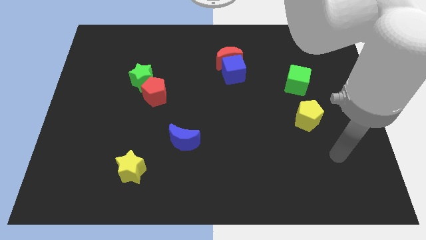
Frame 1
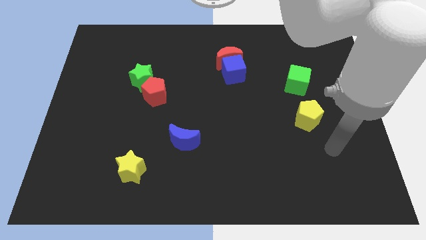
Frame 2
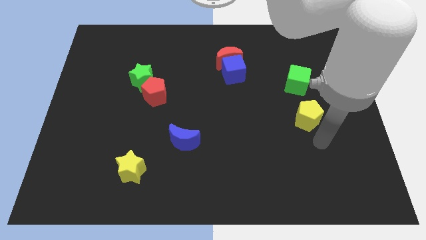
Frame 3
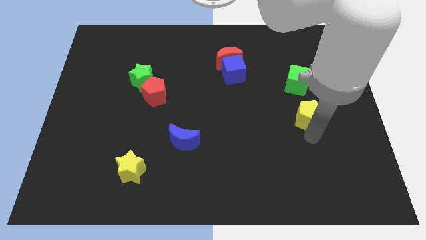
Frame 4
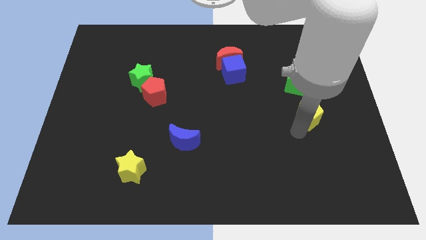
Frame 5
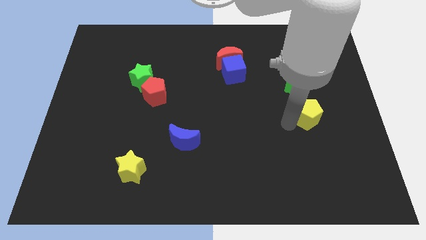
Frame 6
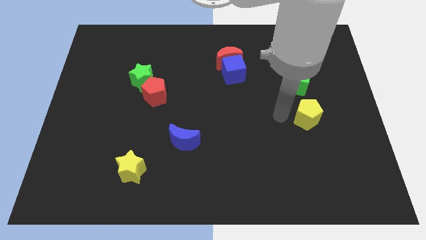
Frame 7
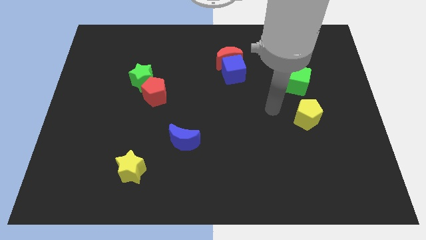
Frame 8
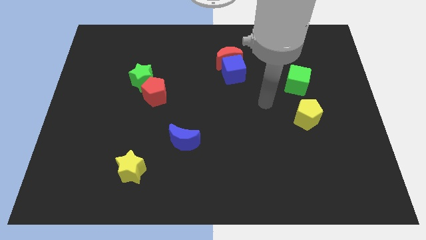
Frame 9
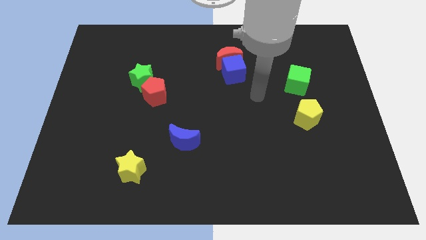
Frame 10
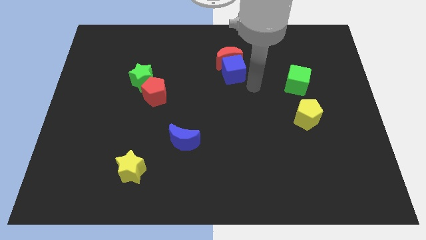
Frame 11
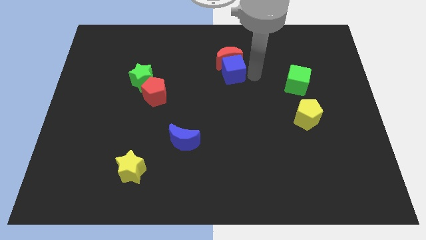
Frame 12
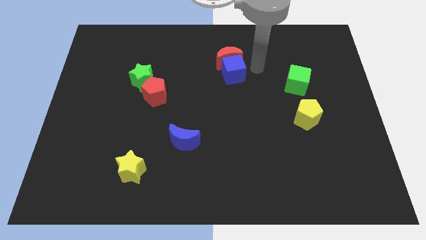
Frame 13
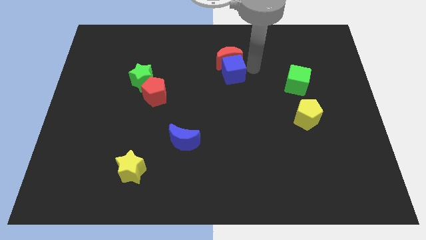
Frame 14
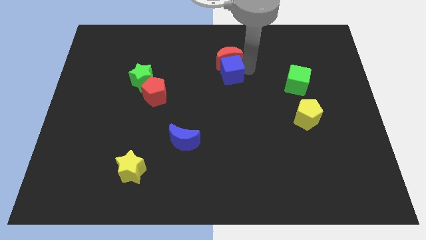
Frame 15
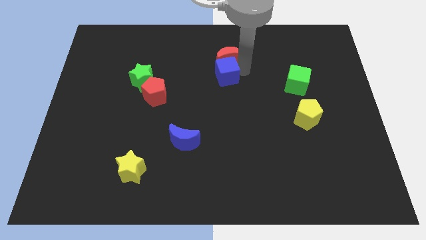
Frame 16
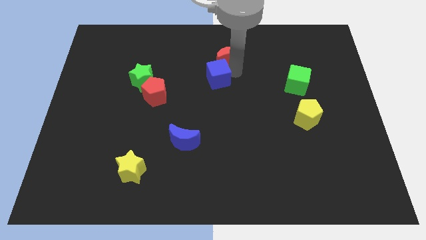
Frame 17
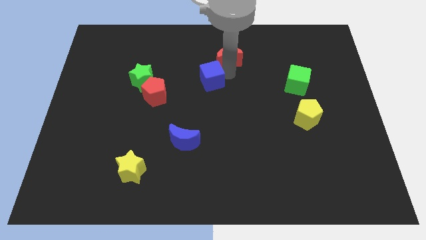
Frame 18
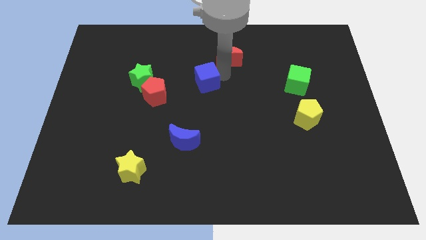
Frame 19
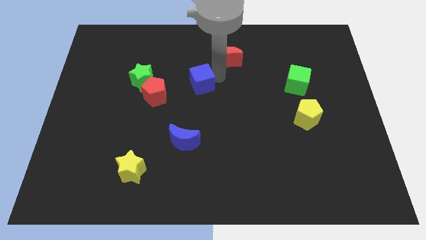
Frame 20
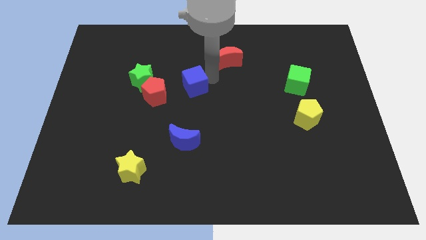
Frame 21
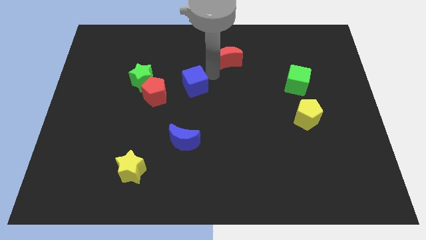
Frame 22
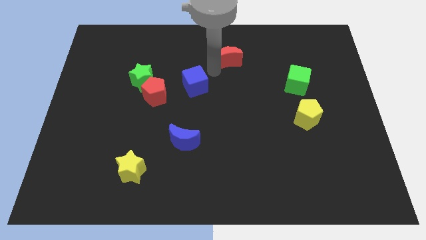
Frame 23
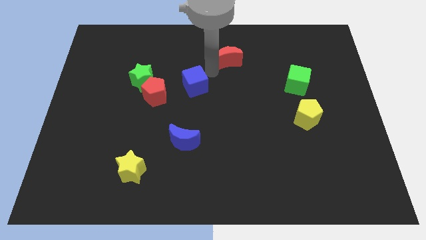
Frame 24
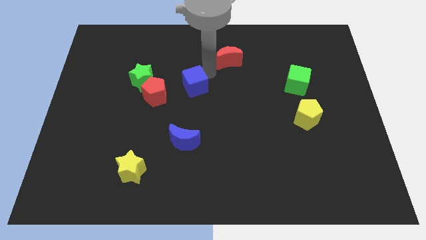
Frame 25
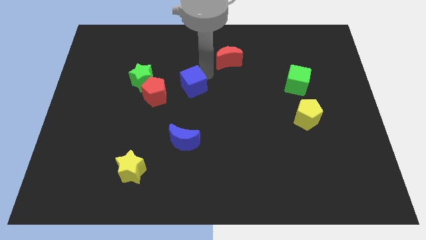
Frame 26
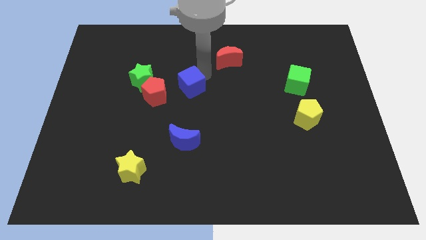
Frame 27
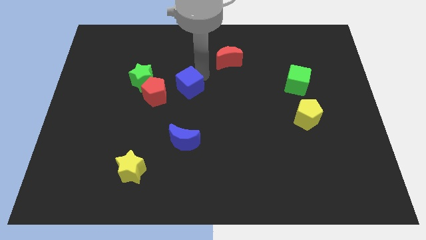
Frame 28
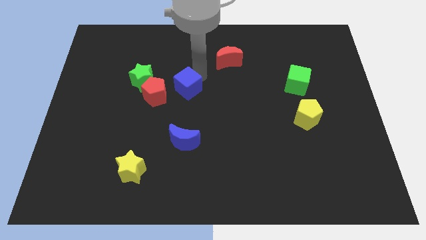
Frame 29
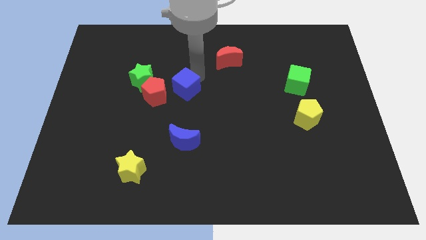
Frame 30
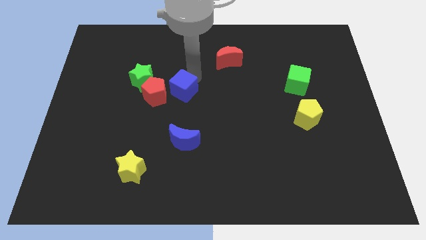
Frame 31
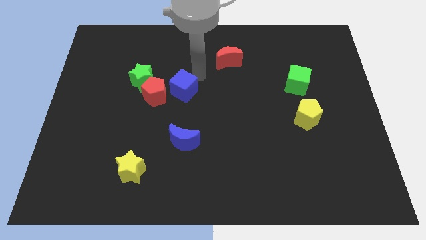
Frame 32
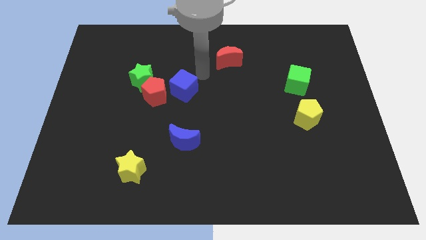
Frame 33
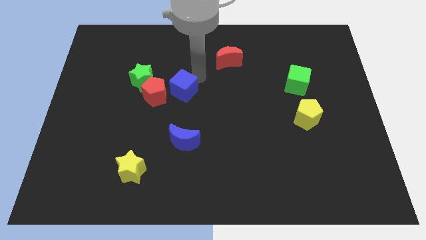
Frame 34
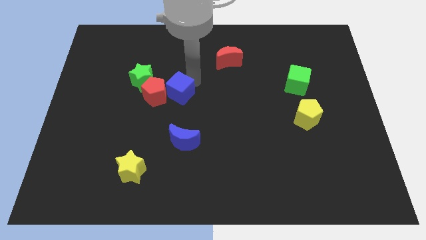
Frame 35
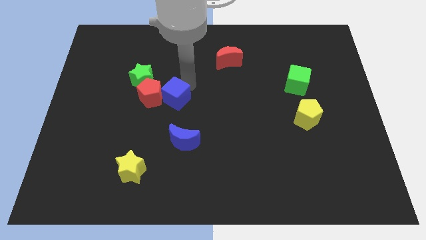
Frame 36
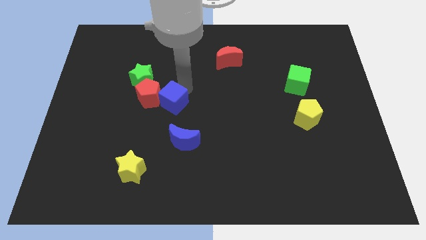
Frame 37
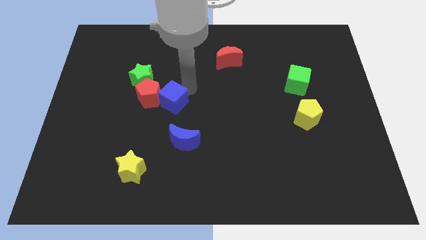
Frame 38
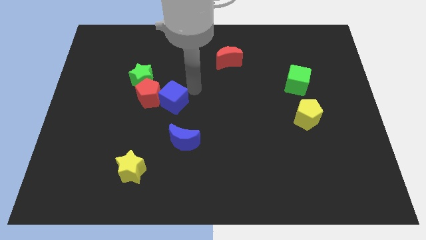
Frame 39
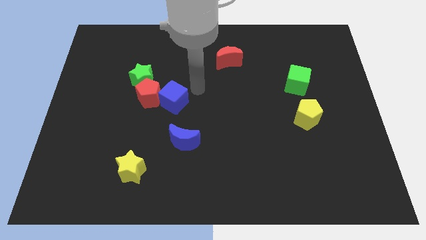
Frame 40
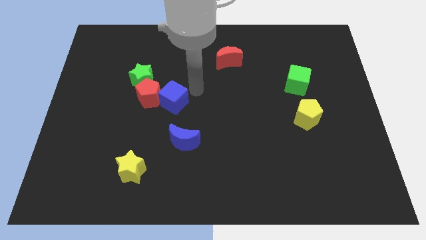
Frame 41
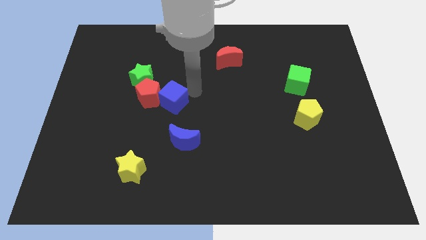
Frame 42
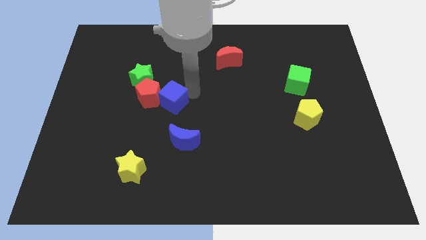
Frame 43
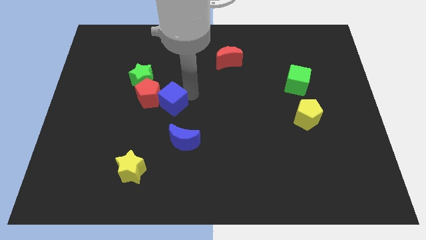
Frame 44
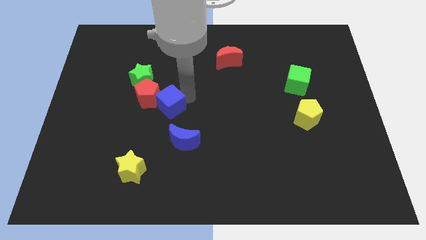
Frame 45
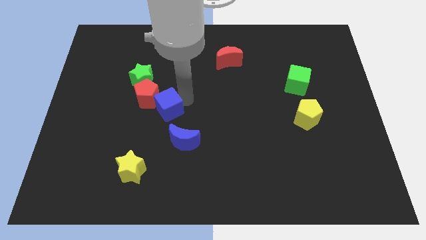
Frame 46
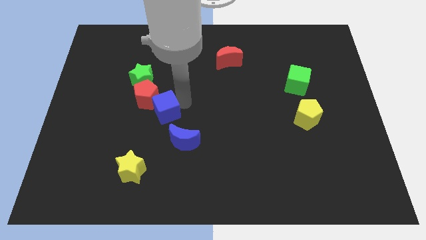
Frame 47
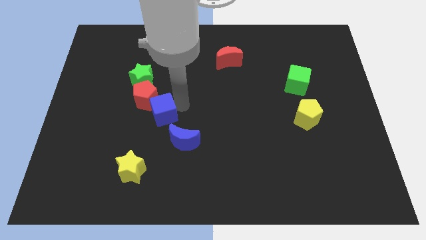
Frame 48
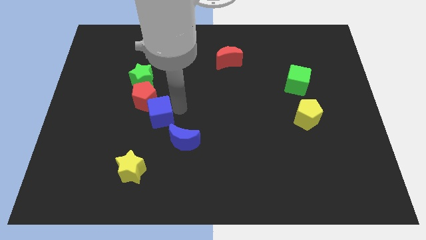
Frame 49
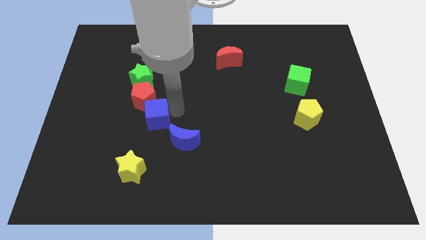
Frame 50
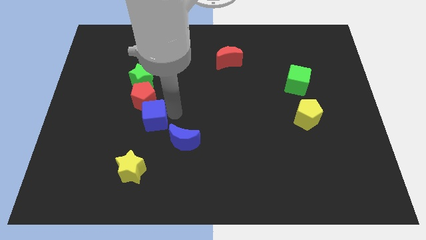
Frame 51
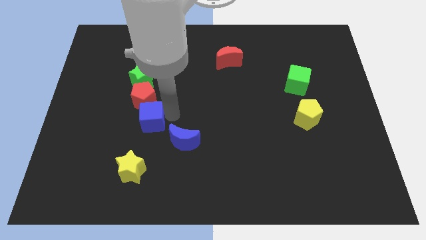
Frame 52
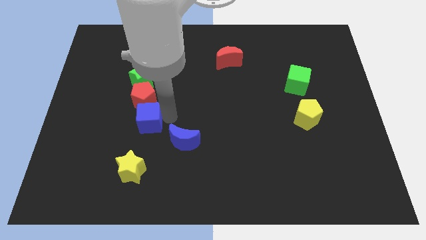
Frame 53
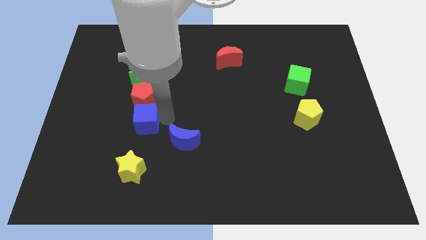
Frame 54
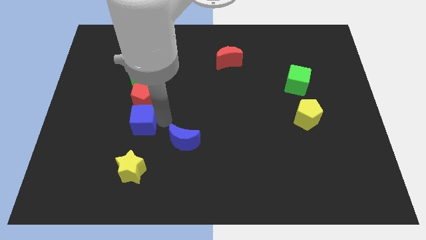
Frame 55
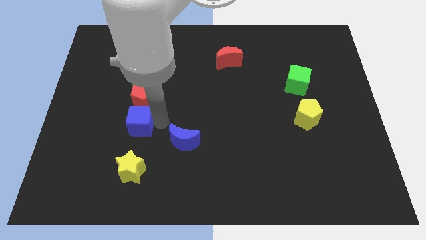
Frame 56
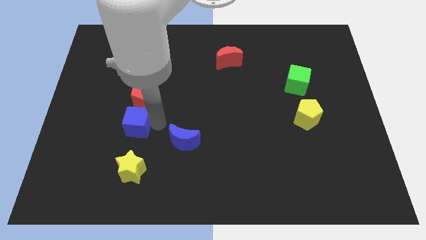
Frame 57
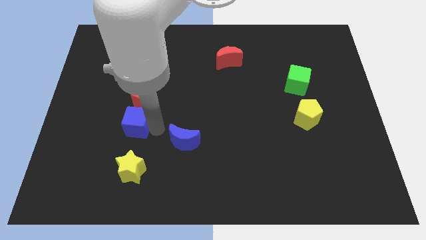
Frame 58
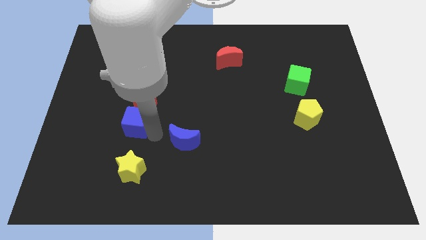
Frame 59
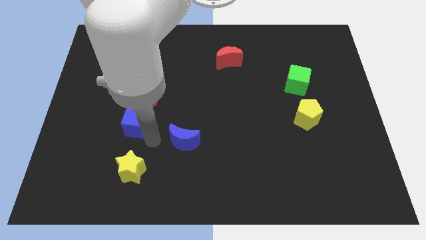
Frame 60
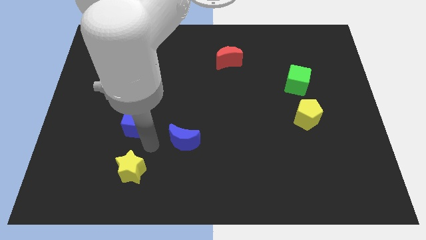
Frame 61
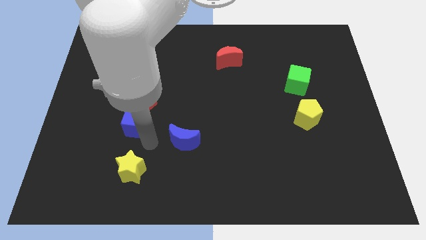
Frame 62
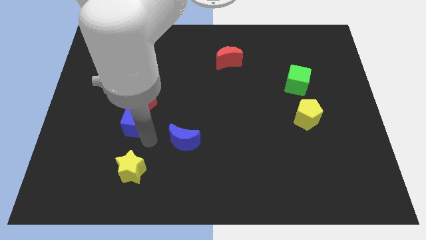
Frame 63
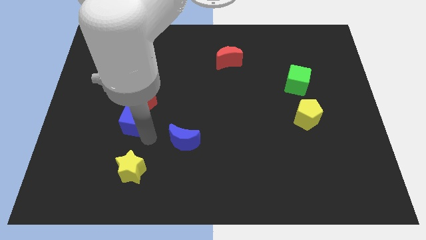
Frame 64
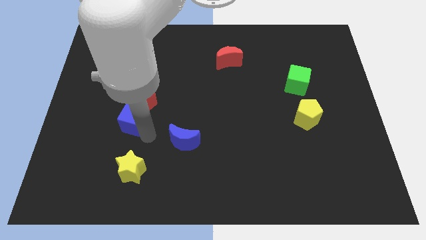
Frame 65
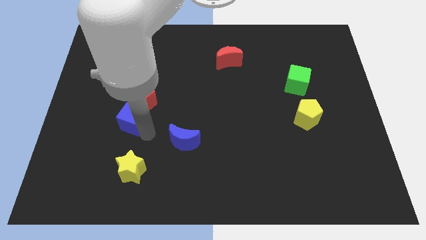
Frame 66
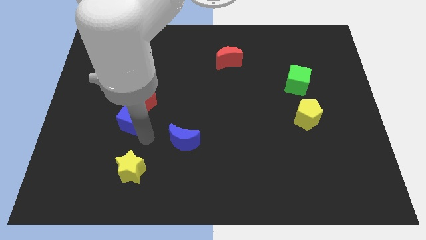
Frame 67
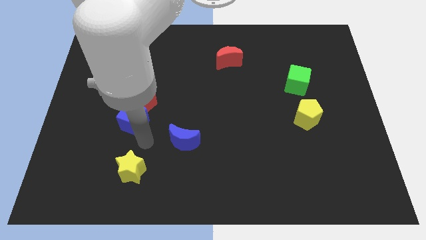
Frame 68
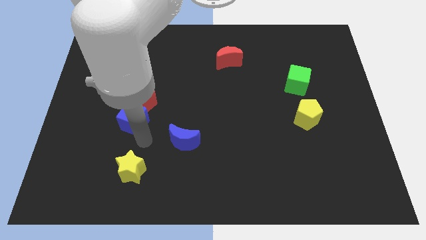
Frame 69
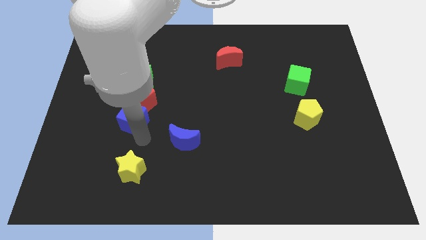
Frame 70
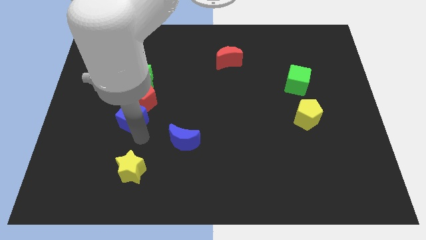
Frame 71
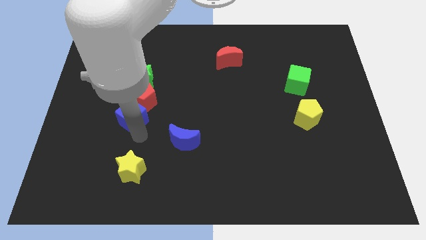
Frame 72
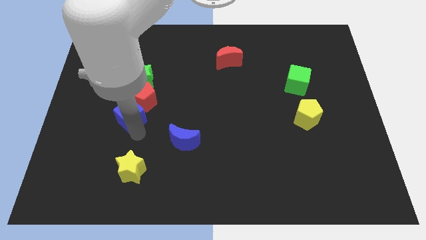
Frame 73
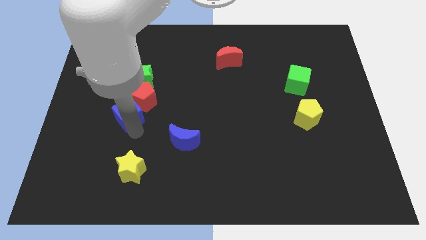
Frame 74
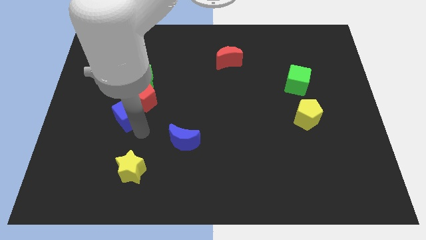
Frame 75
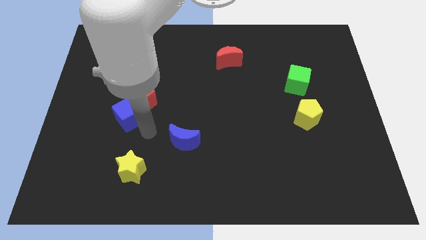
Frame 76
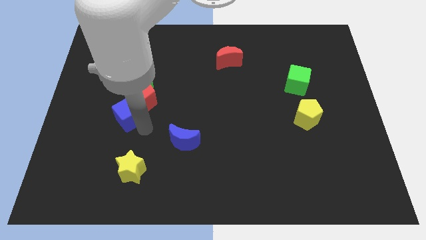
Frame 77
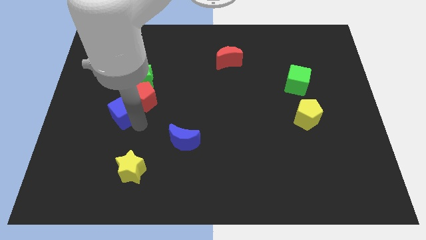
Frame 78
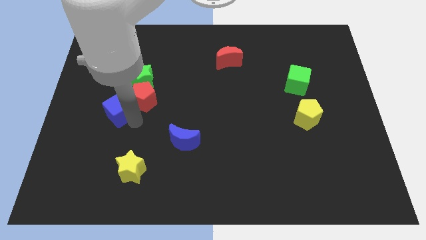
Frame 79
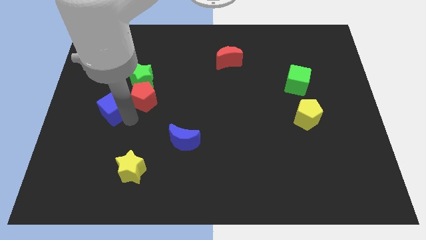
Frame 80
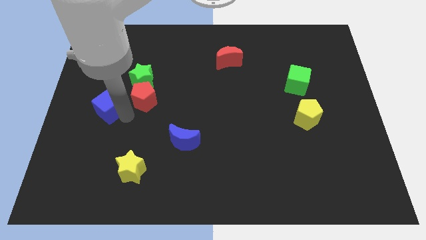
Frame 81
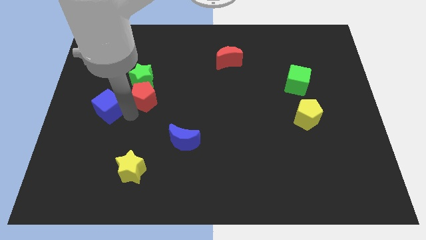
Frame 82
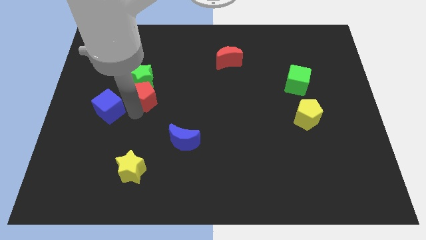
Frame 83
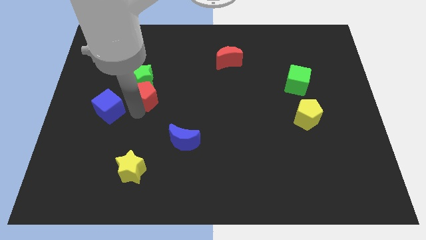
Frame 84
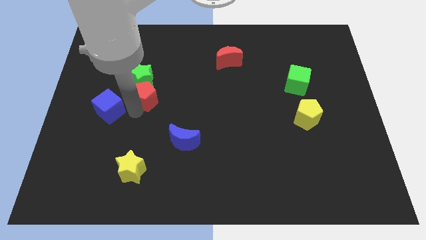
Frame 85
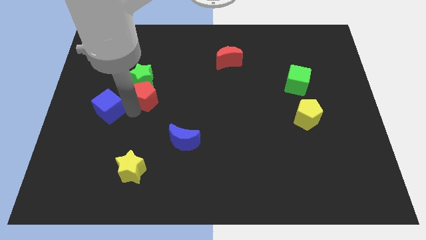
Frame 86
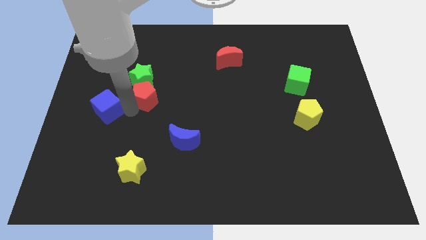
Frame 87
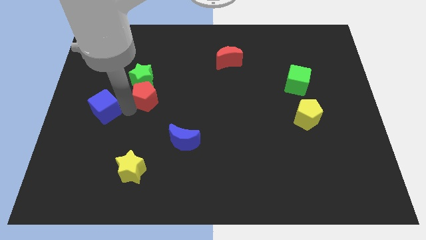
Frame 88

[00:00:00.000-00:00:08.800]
put the blue cube to the center left
